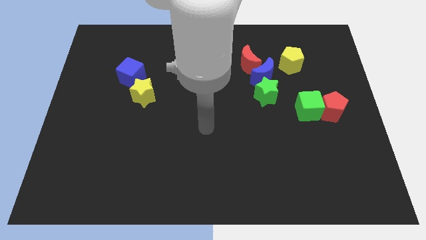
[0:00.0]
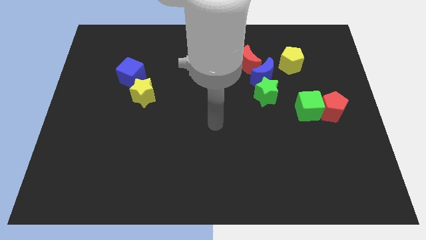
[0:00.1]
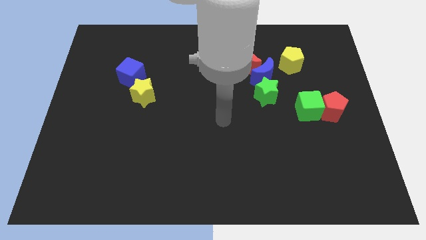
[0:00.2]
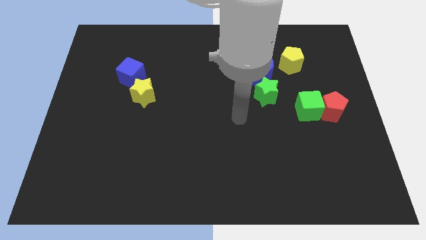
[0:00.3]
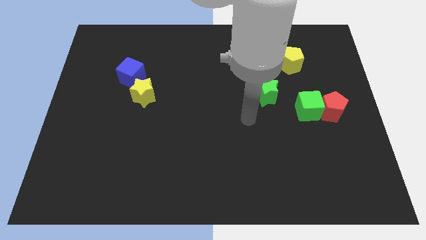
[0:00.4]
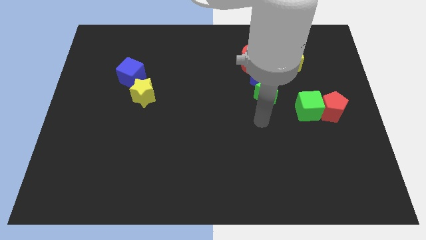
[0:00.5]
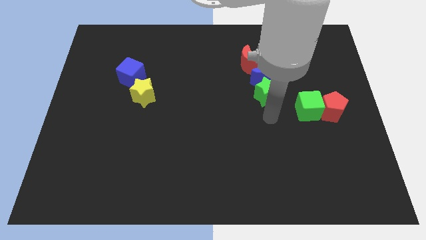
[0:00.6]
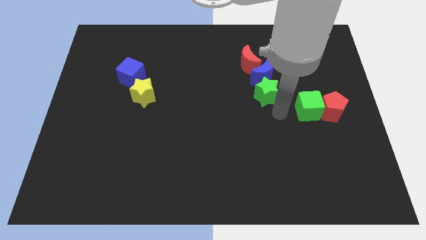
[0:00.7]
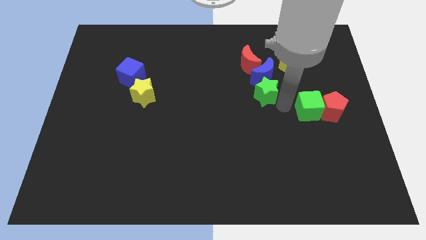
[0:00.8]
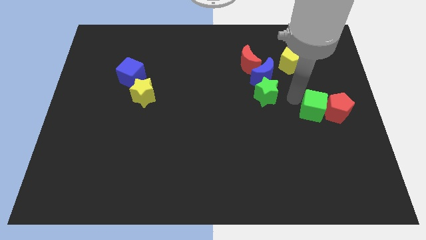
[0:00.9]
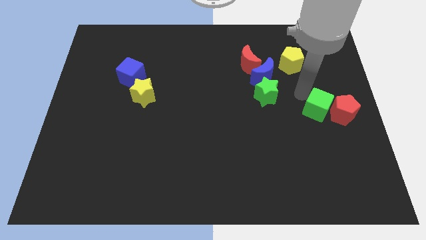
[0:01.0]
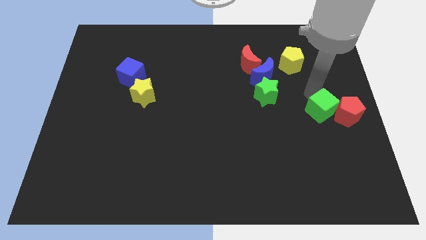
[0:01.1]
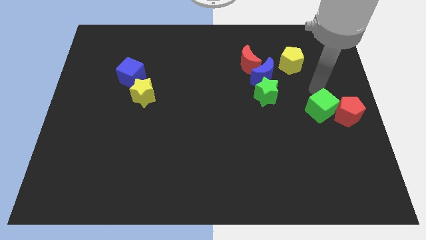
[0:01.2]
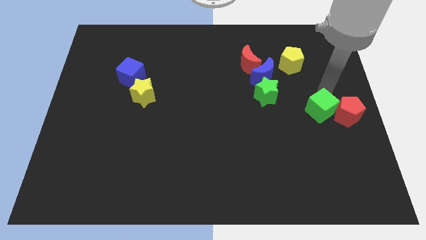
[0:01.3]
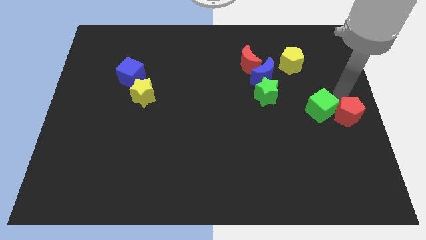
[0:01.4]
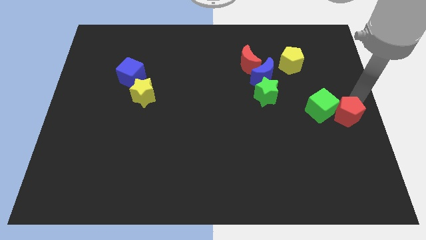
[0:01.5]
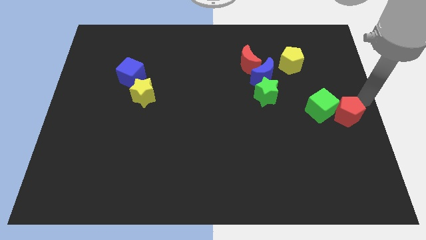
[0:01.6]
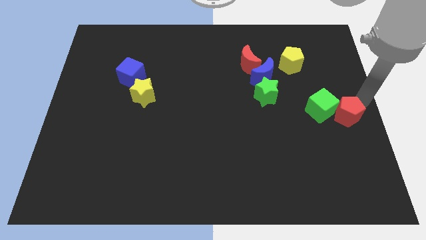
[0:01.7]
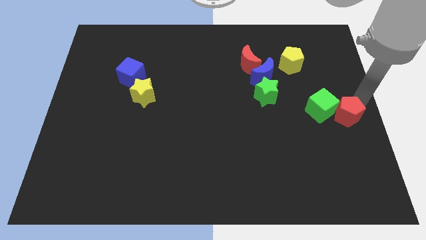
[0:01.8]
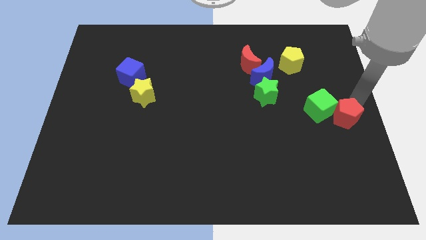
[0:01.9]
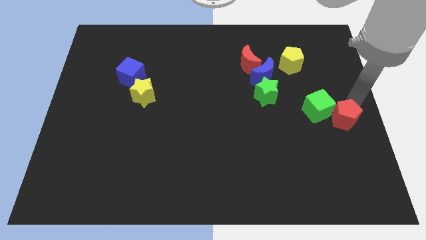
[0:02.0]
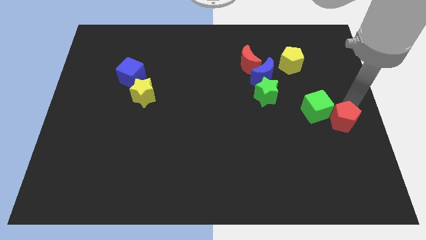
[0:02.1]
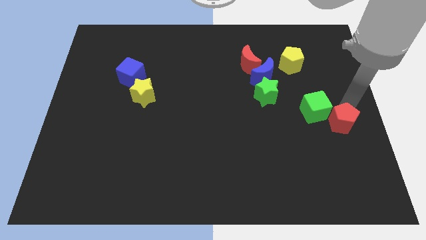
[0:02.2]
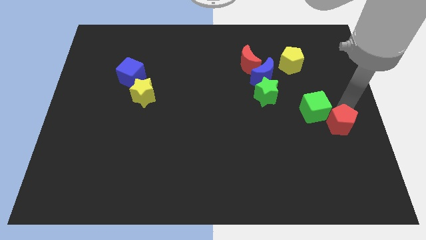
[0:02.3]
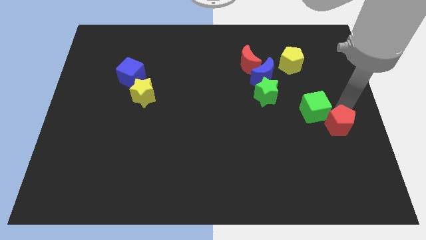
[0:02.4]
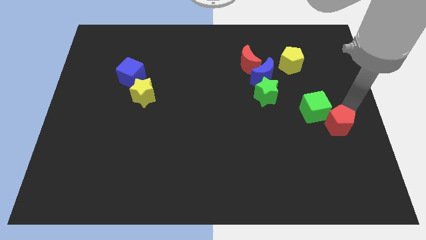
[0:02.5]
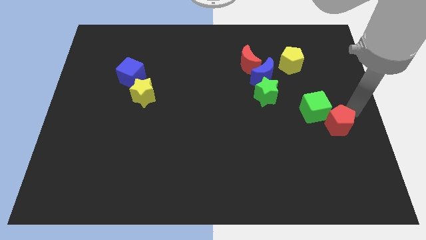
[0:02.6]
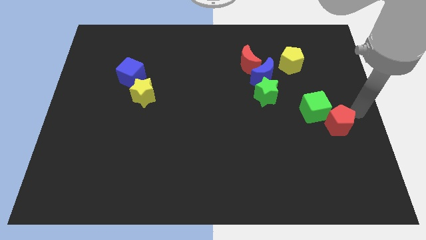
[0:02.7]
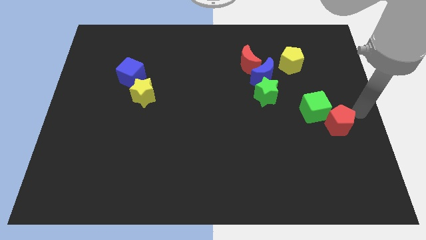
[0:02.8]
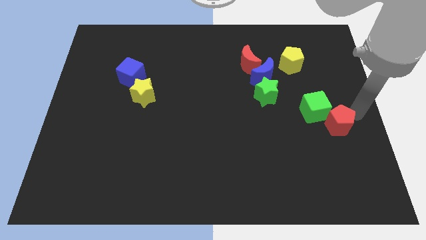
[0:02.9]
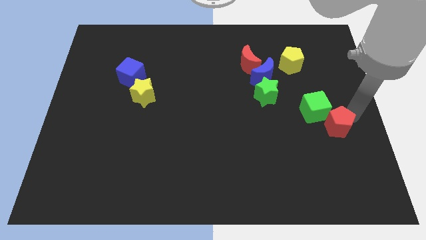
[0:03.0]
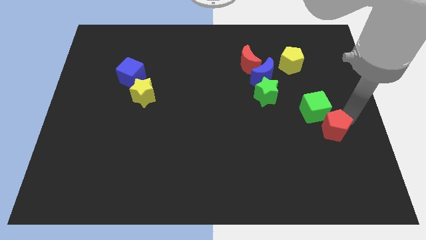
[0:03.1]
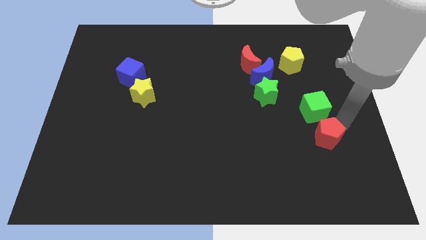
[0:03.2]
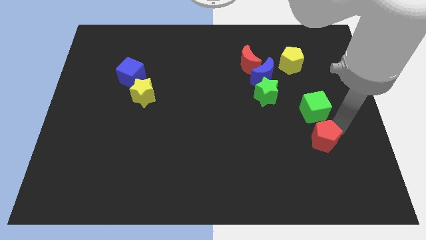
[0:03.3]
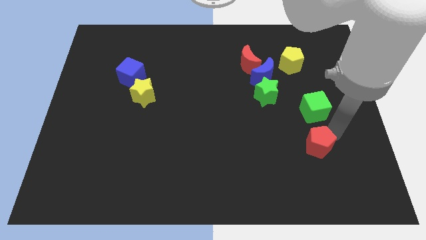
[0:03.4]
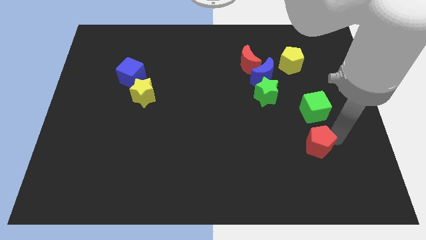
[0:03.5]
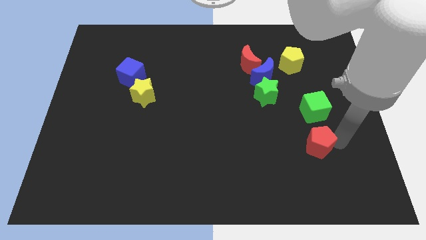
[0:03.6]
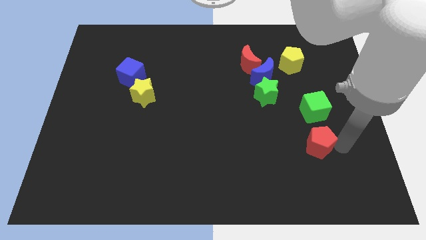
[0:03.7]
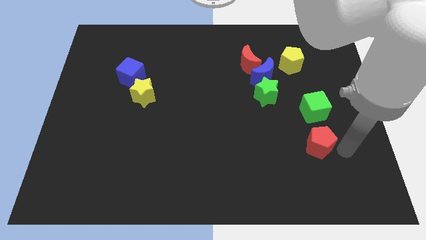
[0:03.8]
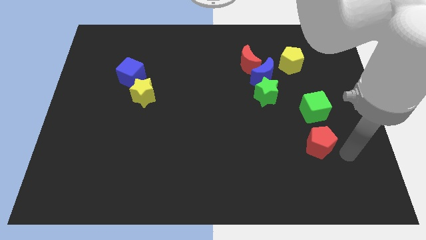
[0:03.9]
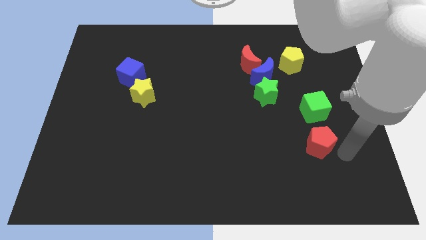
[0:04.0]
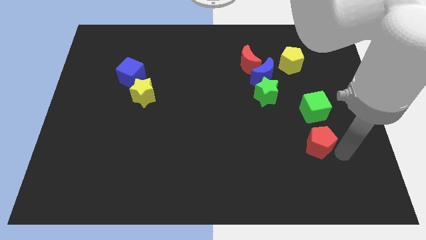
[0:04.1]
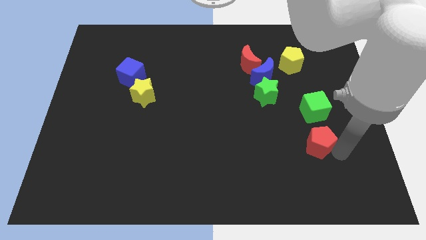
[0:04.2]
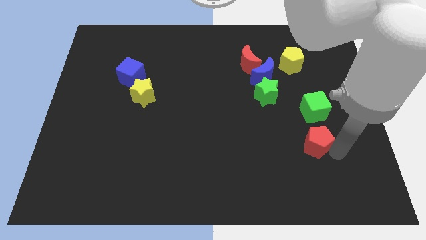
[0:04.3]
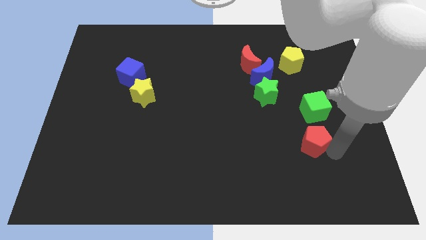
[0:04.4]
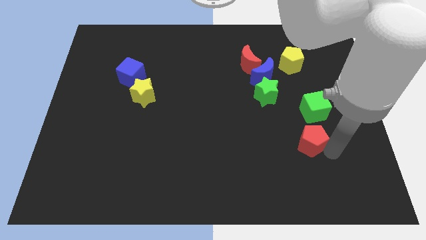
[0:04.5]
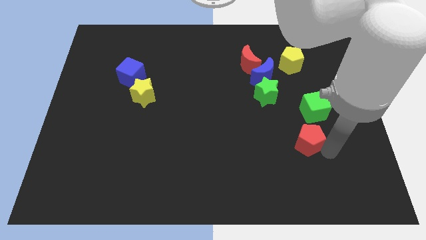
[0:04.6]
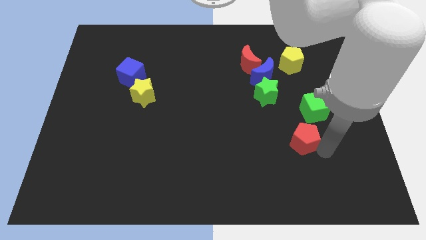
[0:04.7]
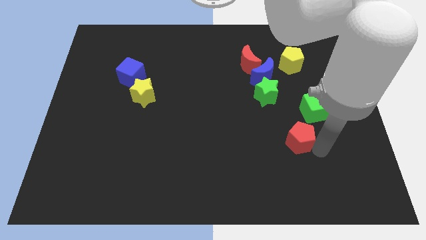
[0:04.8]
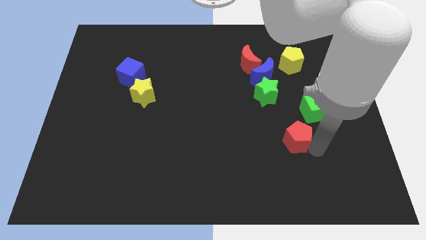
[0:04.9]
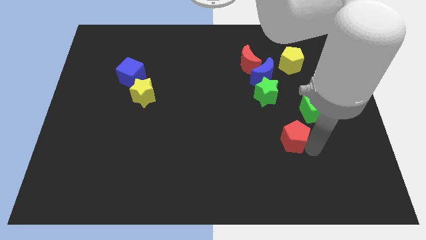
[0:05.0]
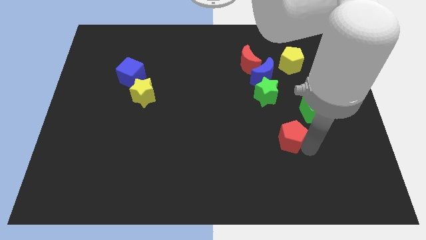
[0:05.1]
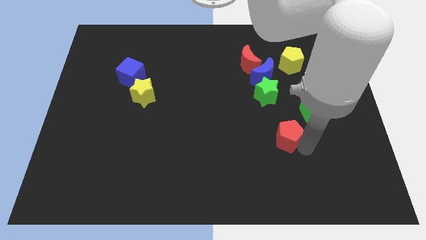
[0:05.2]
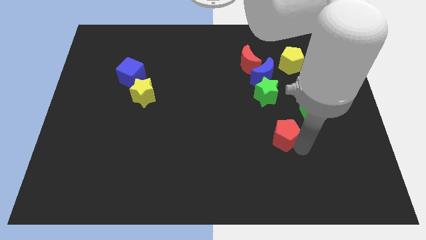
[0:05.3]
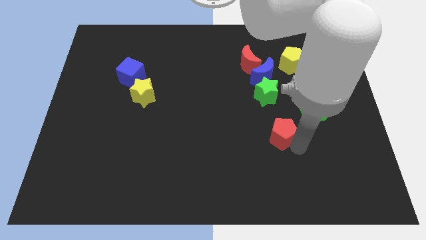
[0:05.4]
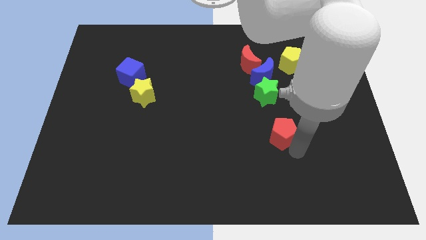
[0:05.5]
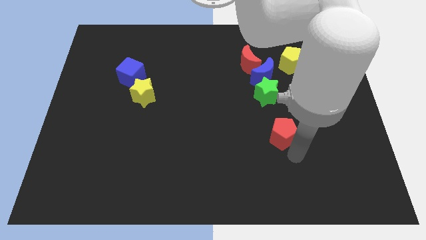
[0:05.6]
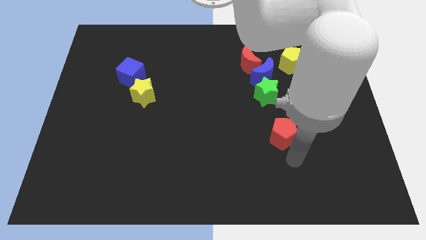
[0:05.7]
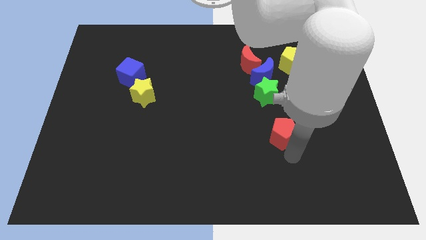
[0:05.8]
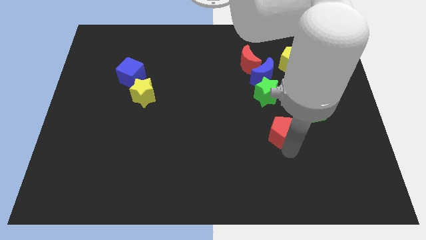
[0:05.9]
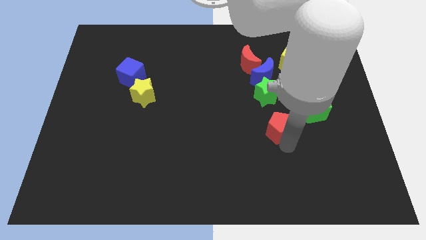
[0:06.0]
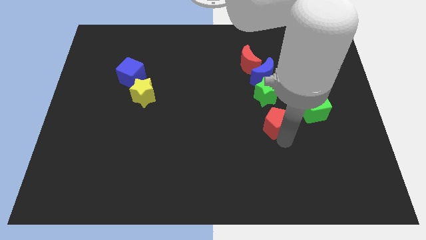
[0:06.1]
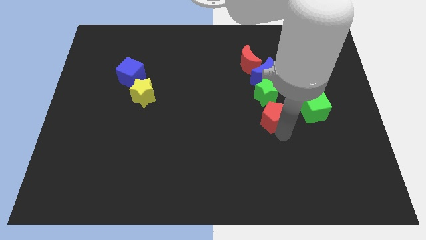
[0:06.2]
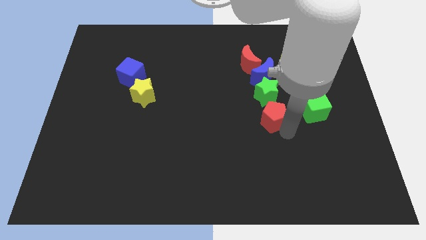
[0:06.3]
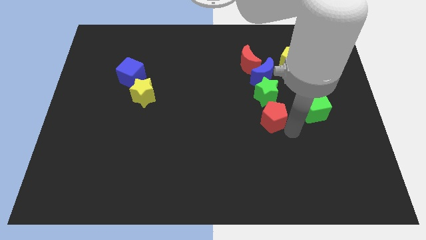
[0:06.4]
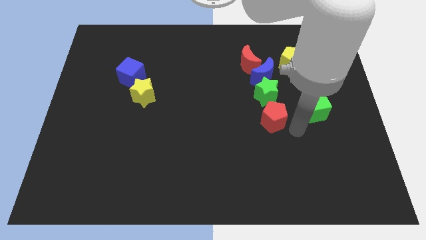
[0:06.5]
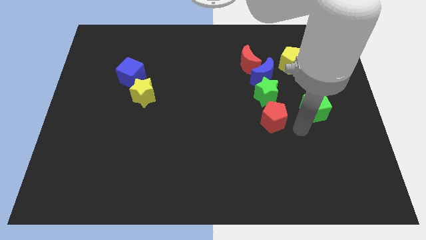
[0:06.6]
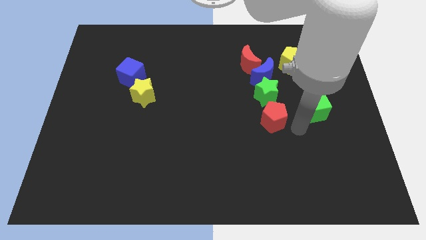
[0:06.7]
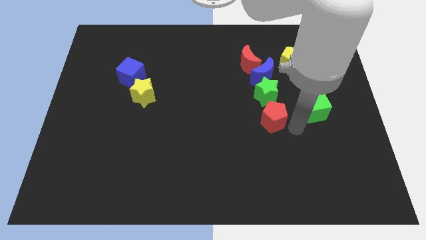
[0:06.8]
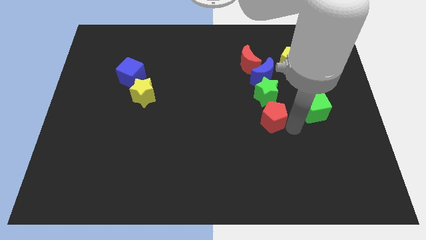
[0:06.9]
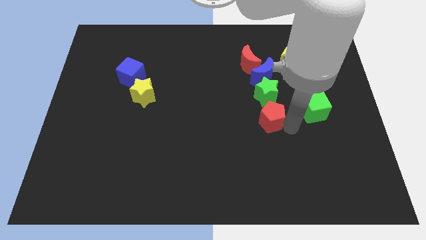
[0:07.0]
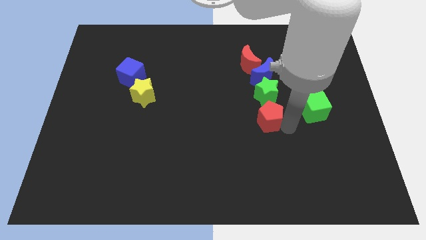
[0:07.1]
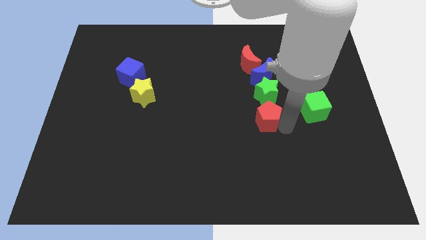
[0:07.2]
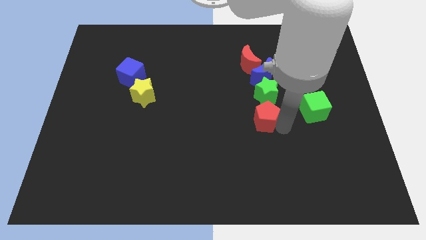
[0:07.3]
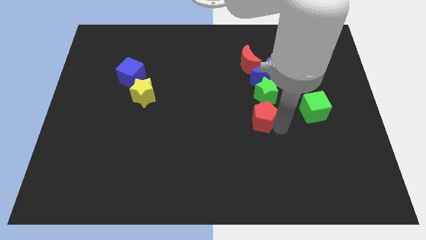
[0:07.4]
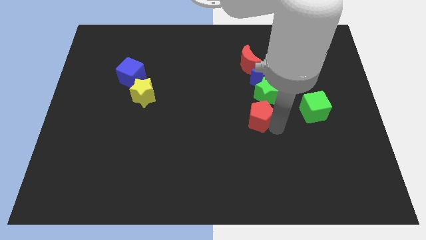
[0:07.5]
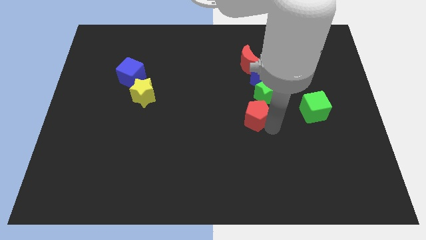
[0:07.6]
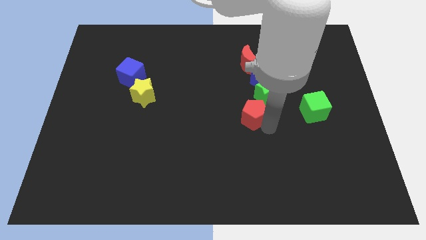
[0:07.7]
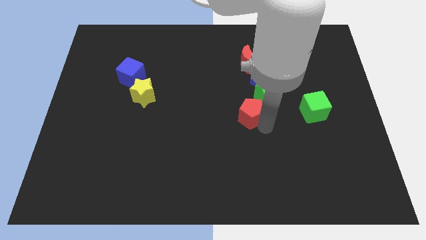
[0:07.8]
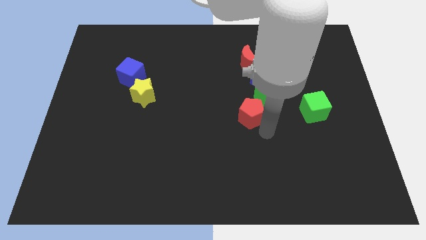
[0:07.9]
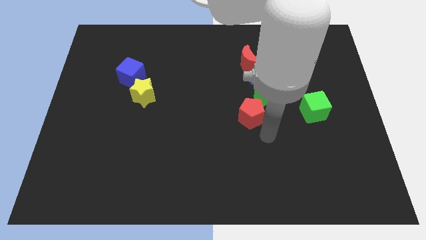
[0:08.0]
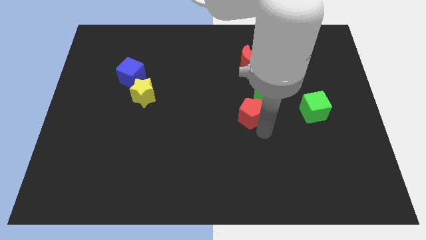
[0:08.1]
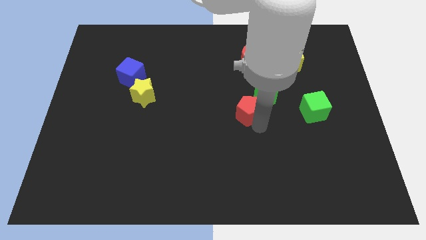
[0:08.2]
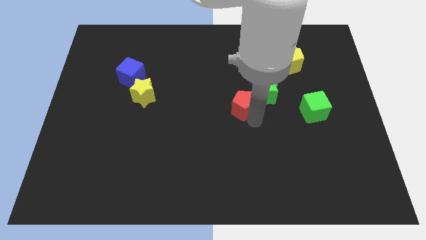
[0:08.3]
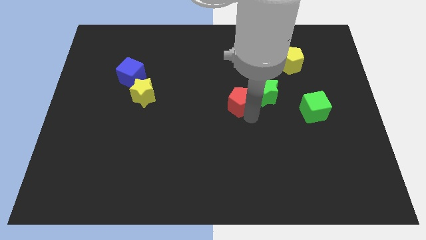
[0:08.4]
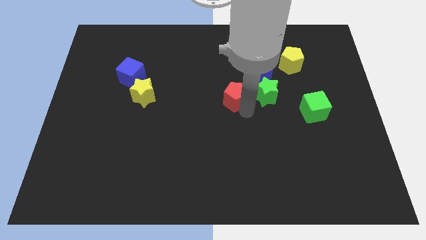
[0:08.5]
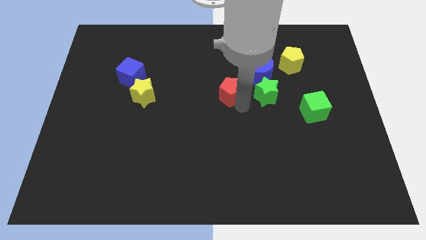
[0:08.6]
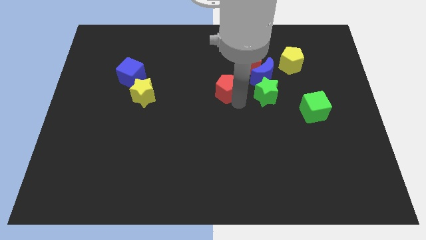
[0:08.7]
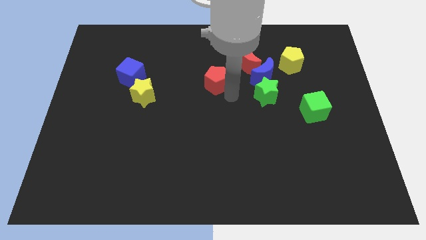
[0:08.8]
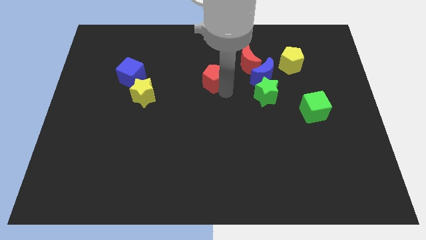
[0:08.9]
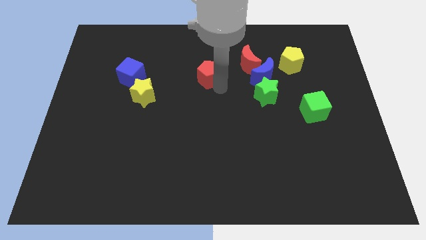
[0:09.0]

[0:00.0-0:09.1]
slide the red pentagon just left of the red moon
